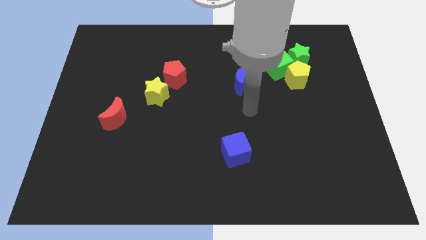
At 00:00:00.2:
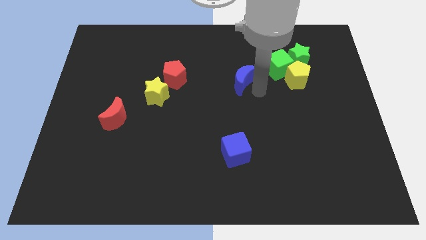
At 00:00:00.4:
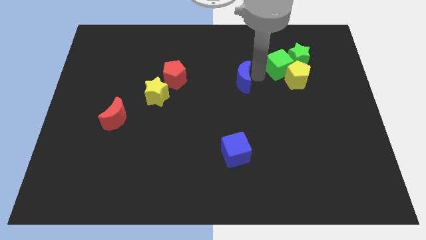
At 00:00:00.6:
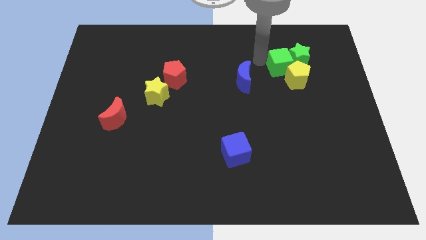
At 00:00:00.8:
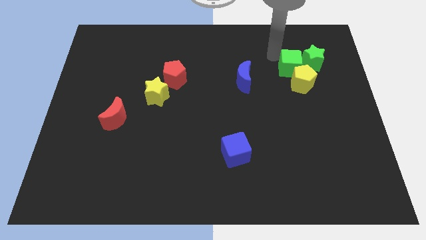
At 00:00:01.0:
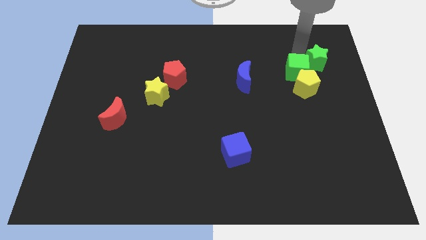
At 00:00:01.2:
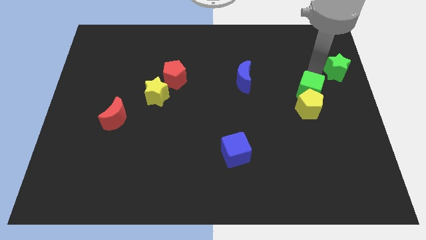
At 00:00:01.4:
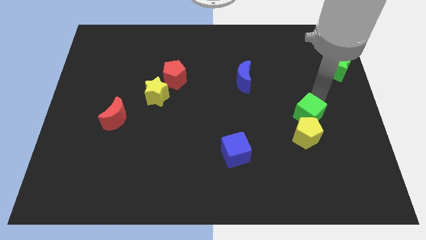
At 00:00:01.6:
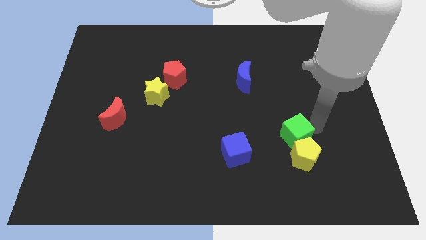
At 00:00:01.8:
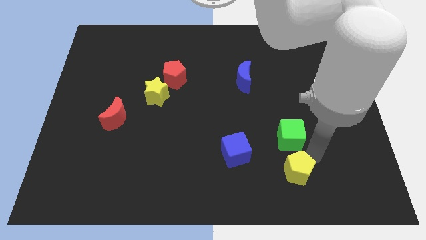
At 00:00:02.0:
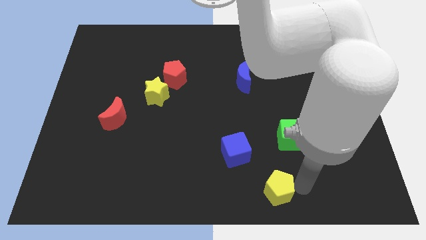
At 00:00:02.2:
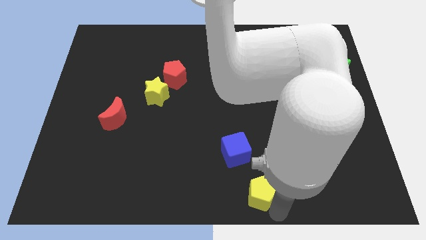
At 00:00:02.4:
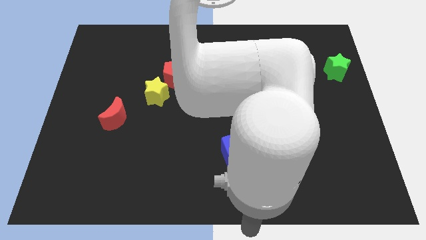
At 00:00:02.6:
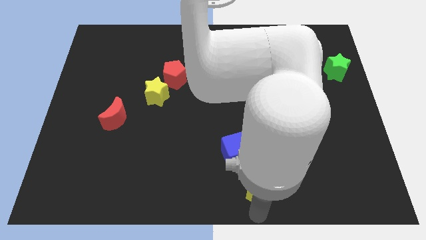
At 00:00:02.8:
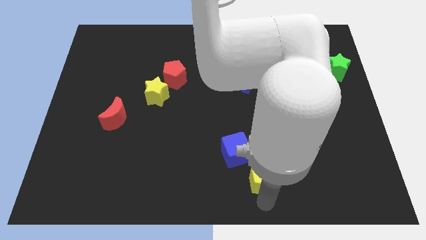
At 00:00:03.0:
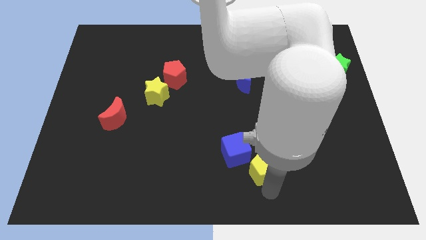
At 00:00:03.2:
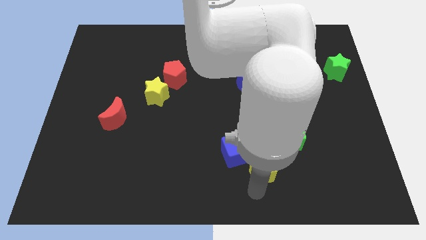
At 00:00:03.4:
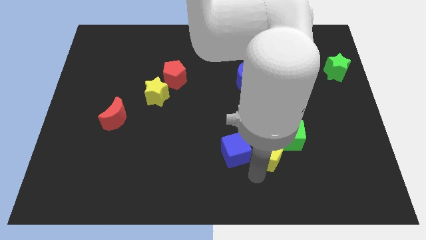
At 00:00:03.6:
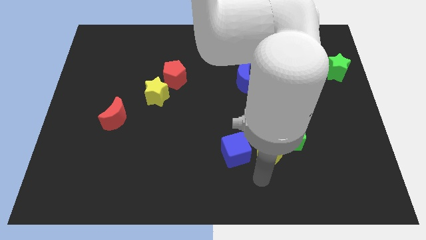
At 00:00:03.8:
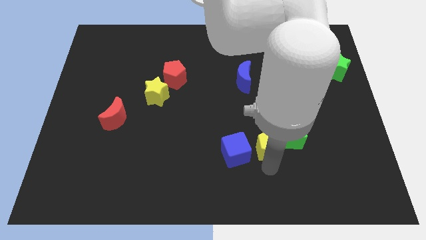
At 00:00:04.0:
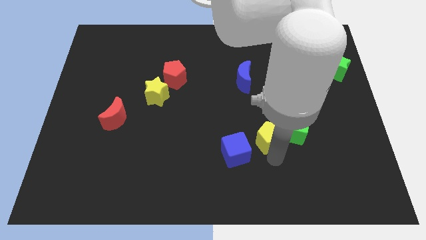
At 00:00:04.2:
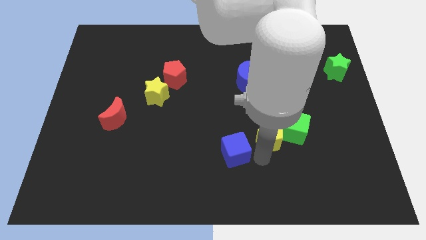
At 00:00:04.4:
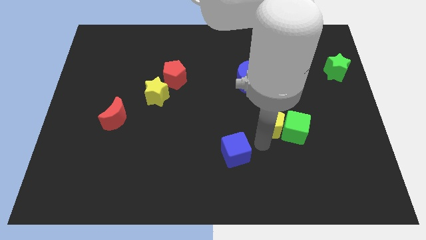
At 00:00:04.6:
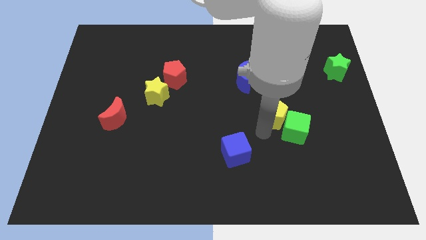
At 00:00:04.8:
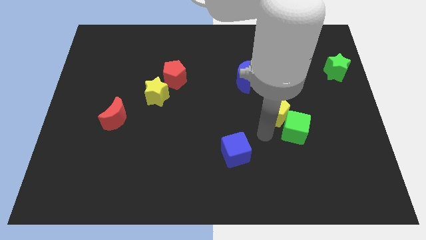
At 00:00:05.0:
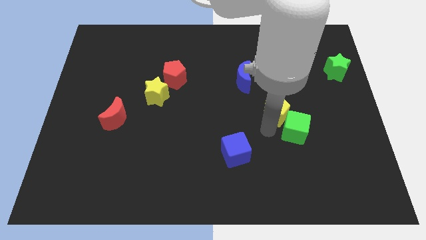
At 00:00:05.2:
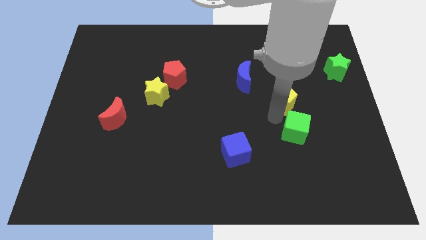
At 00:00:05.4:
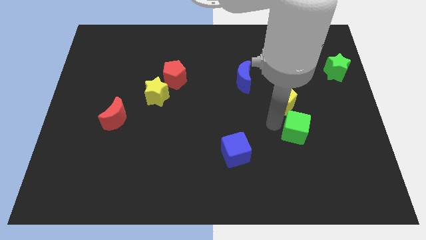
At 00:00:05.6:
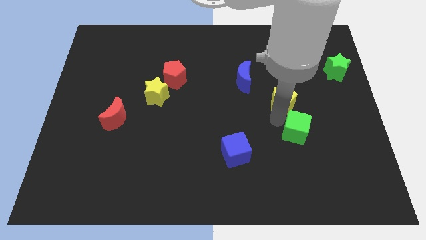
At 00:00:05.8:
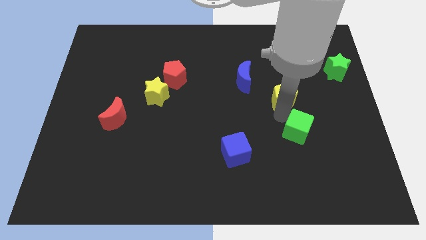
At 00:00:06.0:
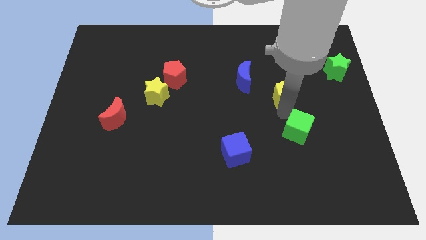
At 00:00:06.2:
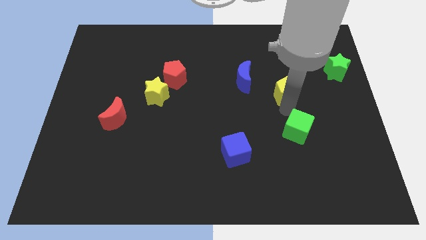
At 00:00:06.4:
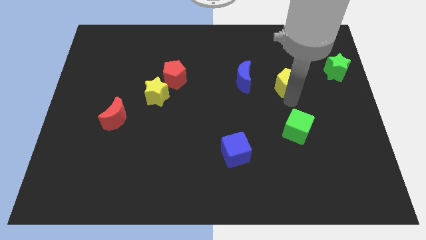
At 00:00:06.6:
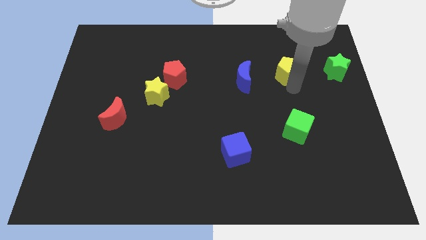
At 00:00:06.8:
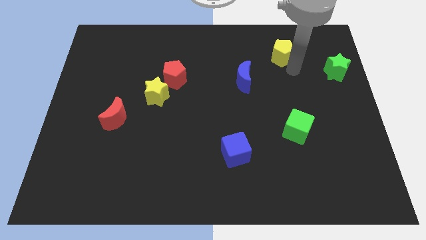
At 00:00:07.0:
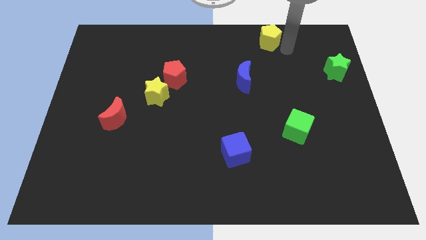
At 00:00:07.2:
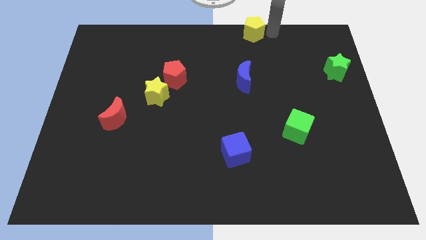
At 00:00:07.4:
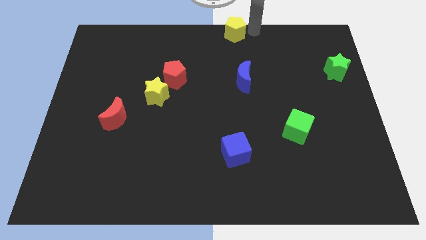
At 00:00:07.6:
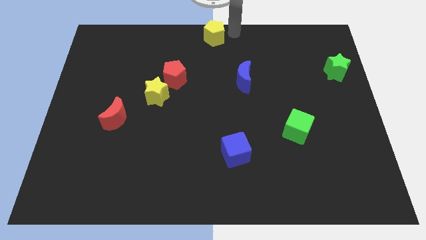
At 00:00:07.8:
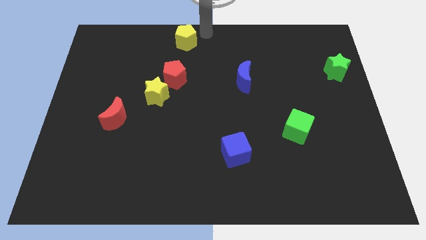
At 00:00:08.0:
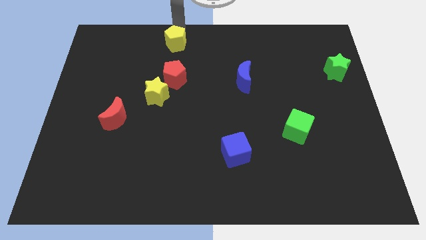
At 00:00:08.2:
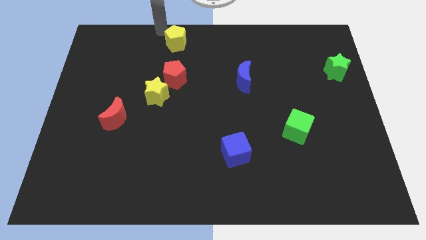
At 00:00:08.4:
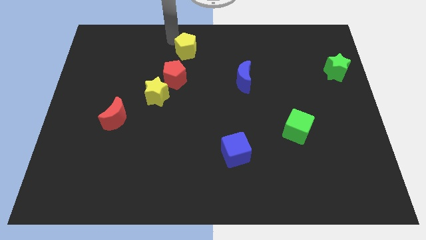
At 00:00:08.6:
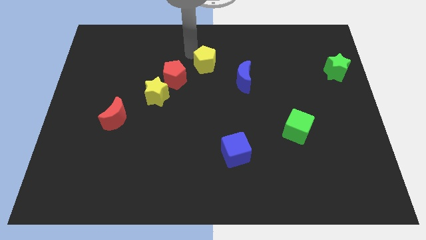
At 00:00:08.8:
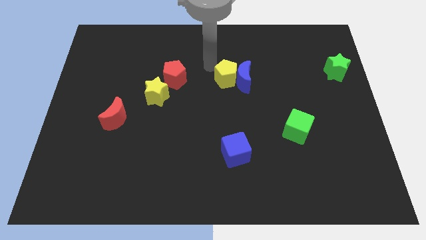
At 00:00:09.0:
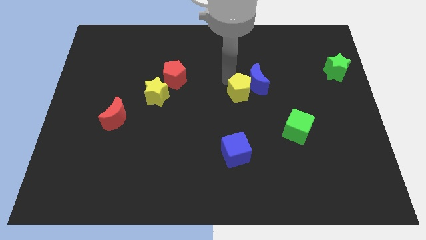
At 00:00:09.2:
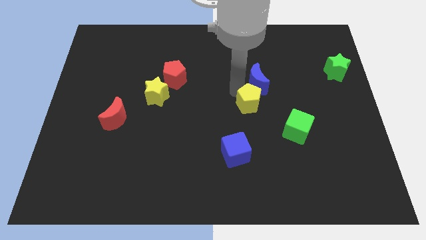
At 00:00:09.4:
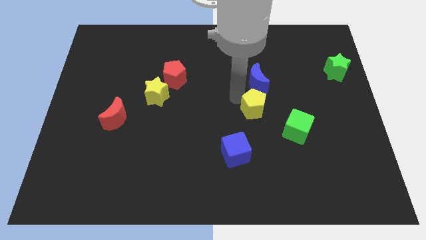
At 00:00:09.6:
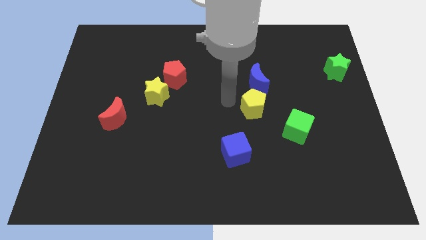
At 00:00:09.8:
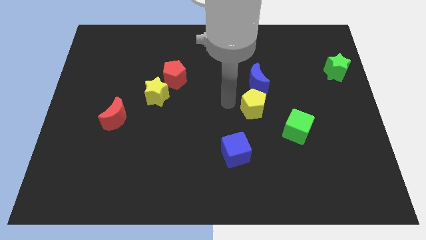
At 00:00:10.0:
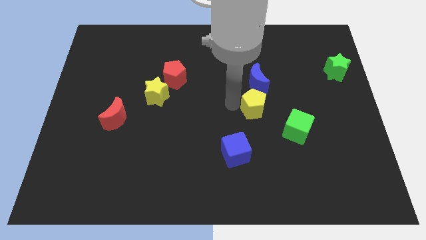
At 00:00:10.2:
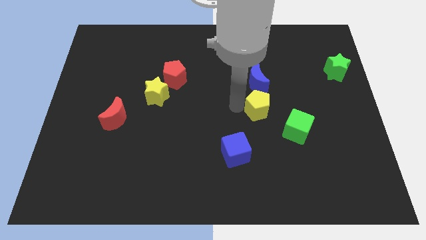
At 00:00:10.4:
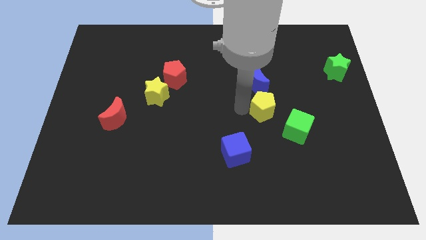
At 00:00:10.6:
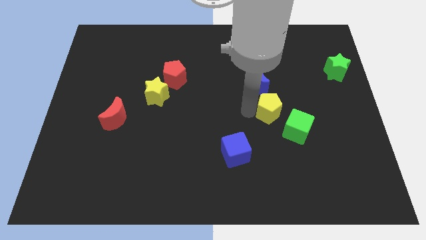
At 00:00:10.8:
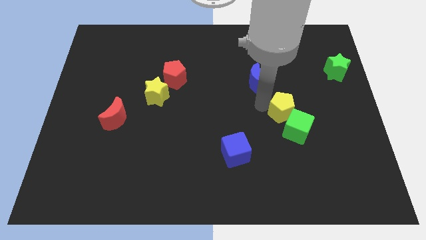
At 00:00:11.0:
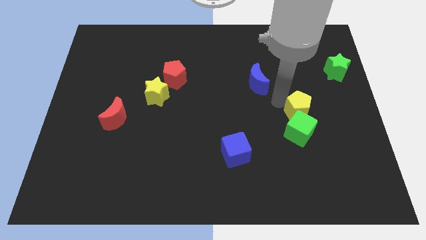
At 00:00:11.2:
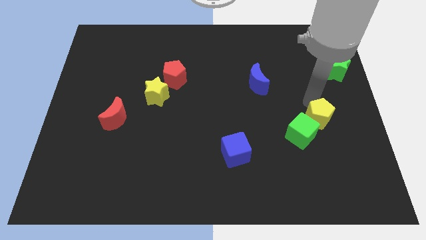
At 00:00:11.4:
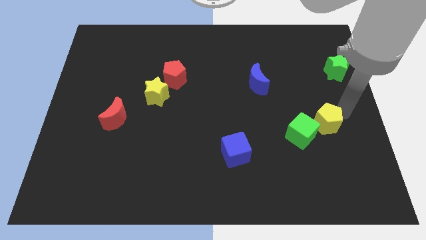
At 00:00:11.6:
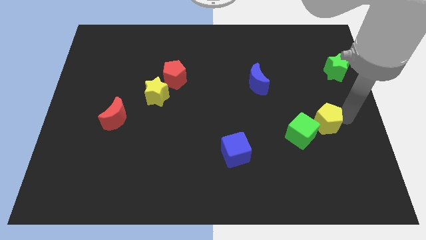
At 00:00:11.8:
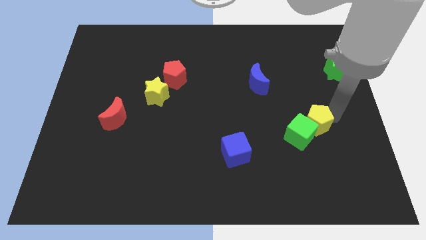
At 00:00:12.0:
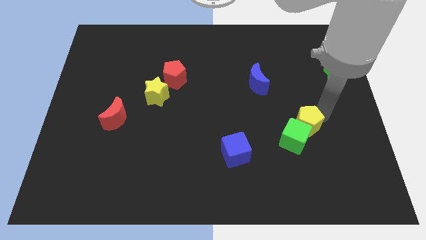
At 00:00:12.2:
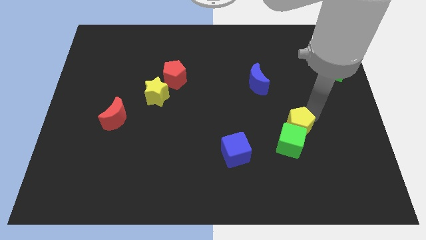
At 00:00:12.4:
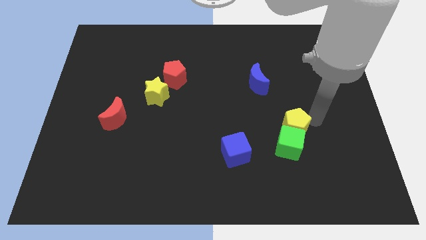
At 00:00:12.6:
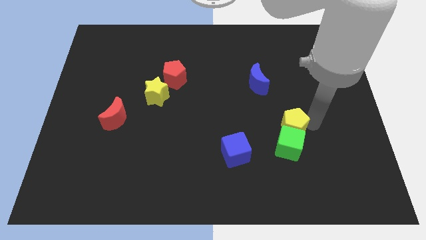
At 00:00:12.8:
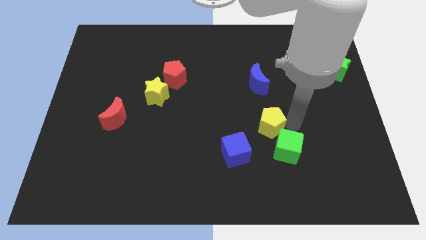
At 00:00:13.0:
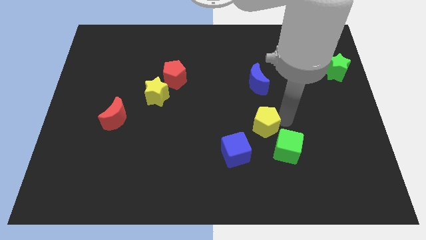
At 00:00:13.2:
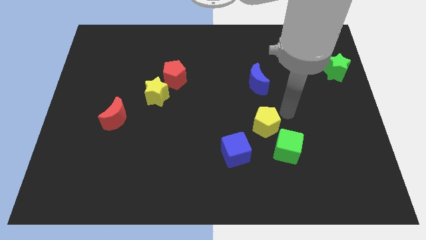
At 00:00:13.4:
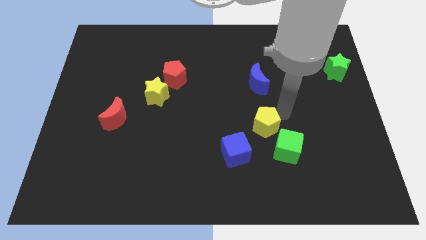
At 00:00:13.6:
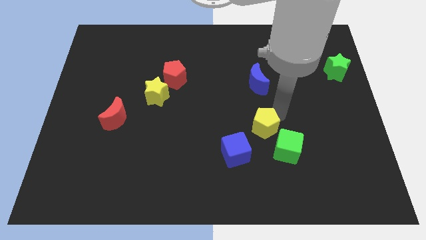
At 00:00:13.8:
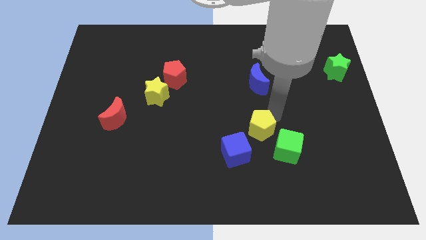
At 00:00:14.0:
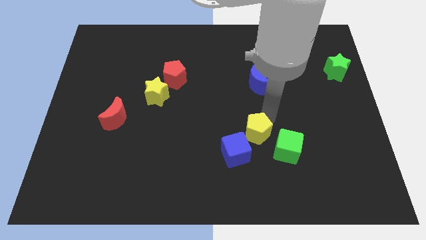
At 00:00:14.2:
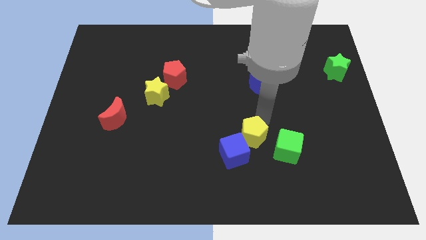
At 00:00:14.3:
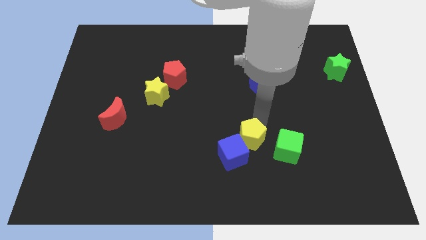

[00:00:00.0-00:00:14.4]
move the yellow pentagon to the blue cube
